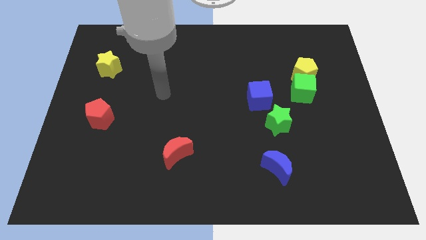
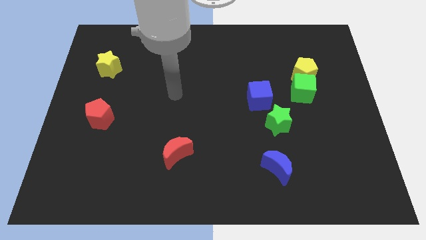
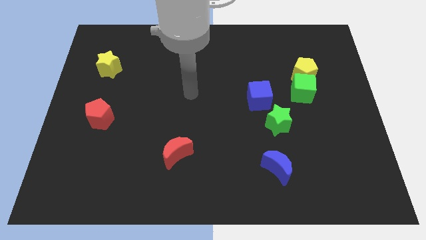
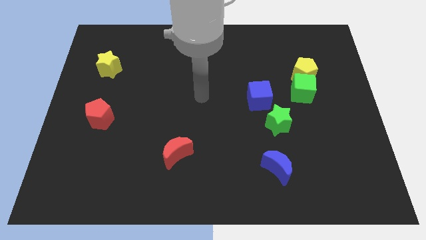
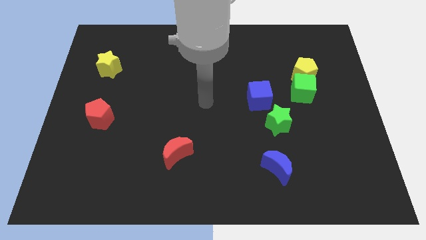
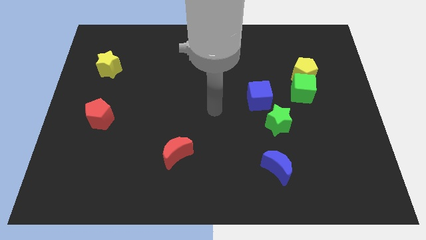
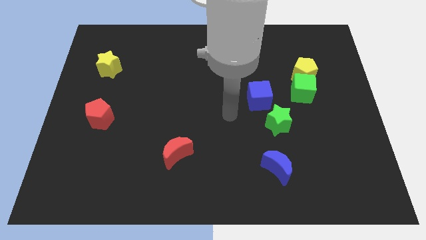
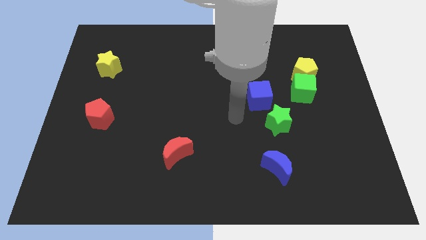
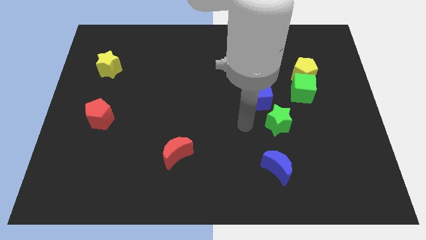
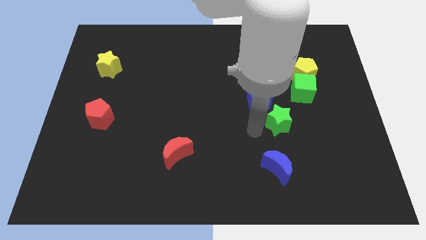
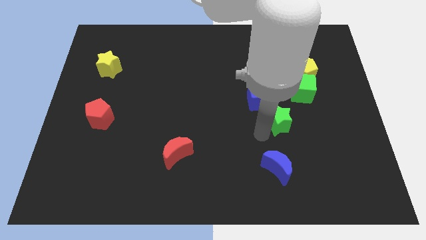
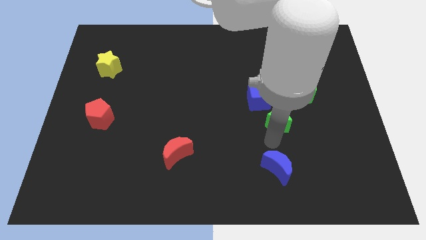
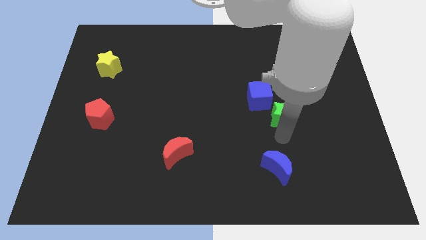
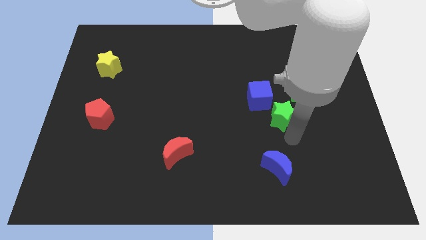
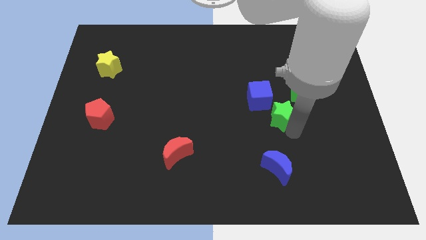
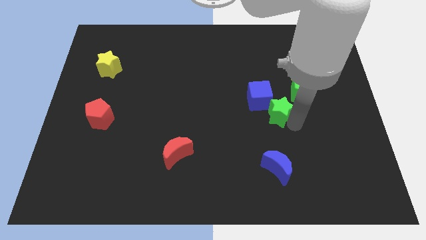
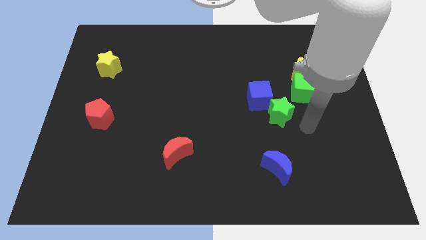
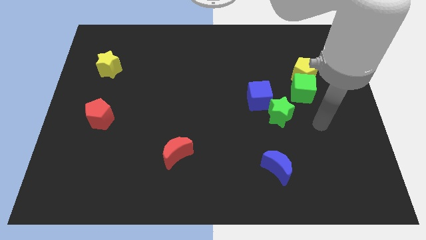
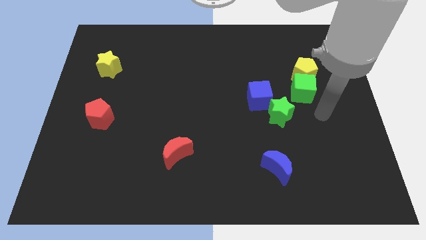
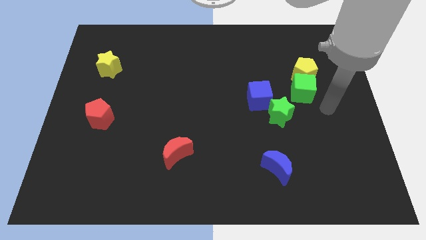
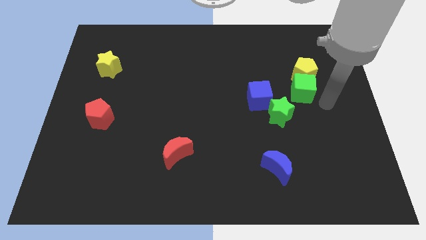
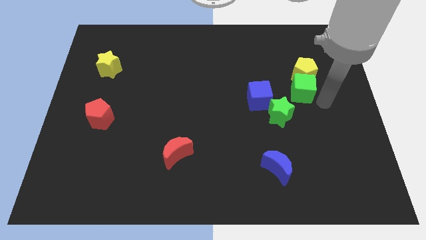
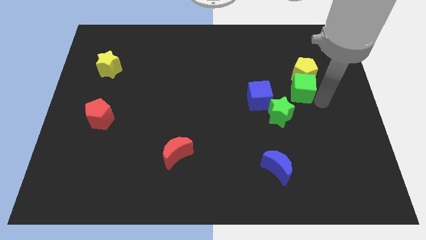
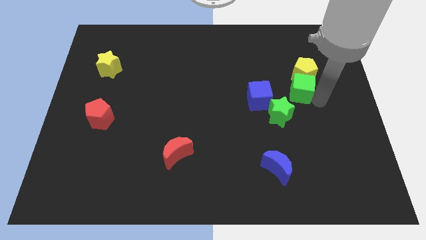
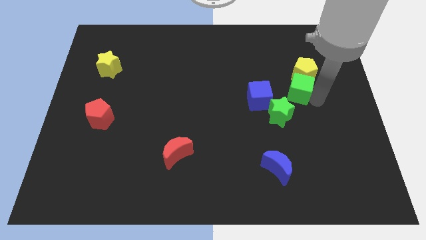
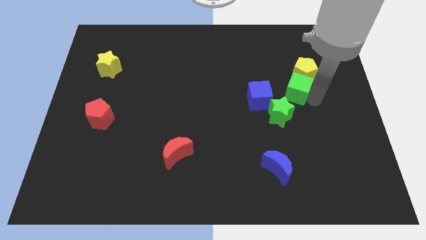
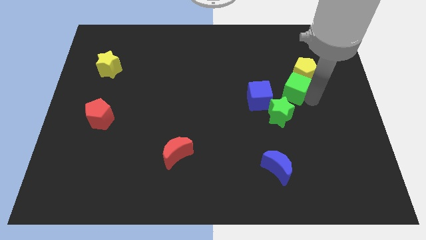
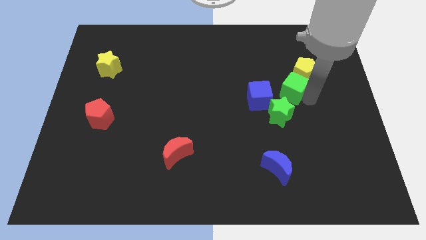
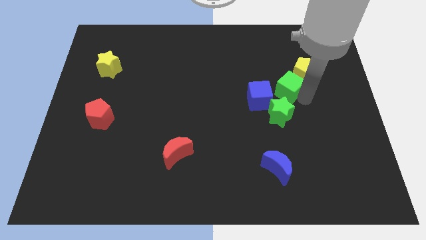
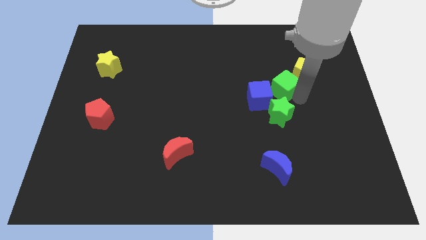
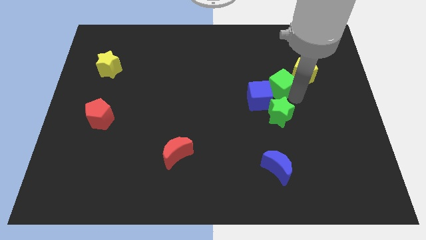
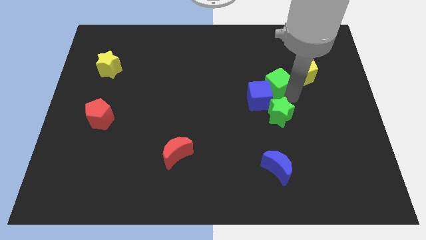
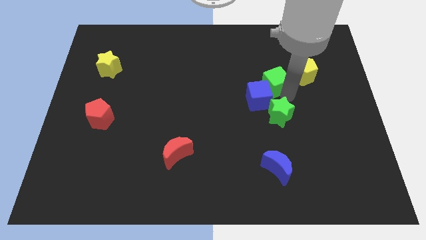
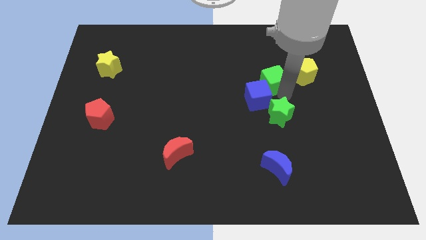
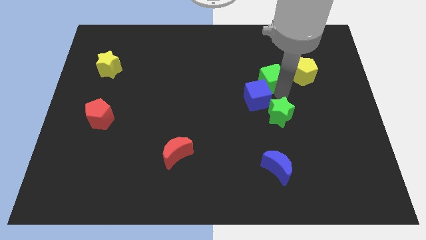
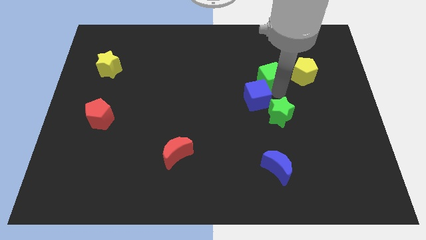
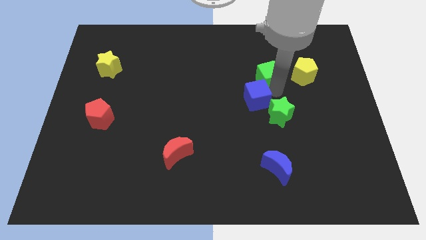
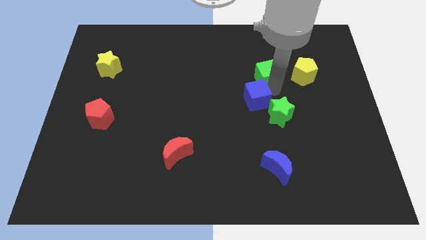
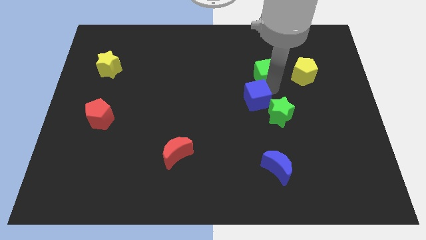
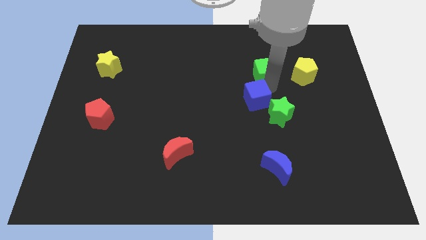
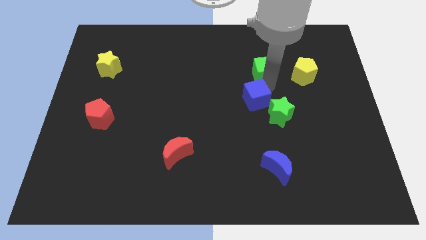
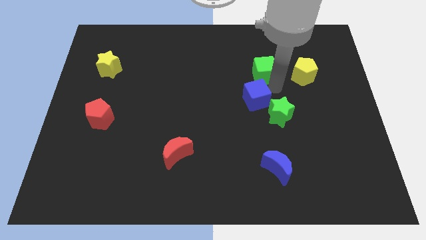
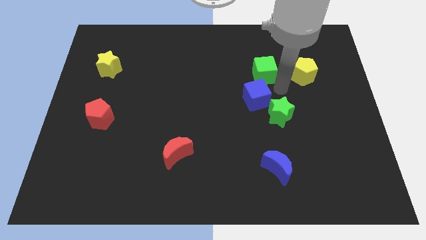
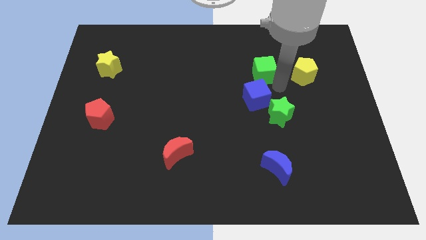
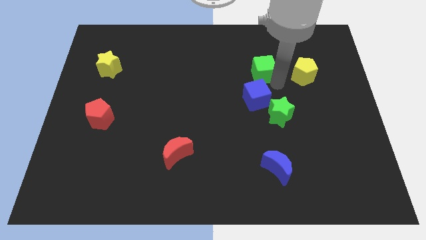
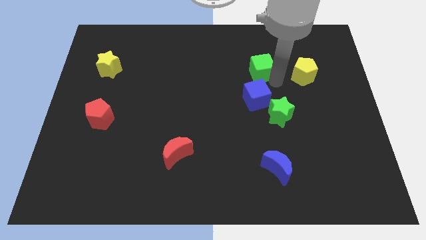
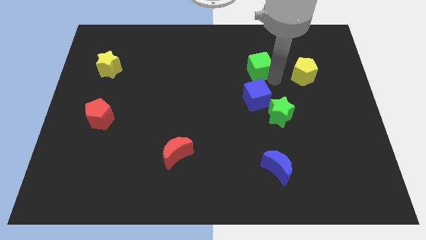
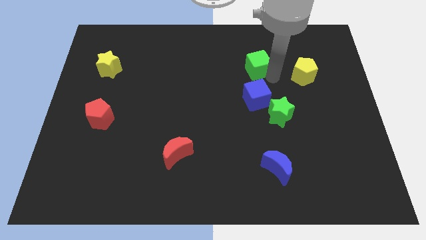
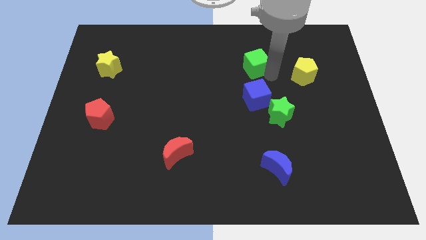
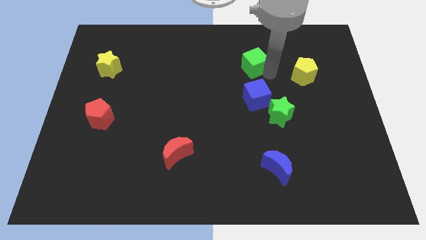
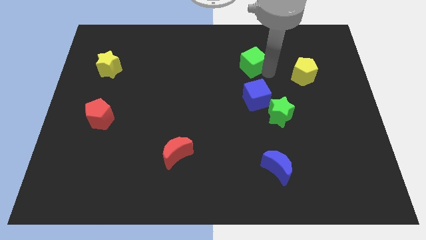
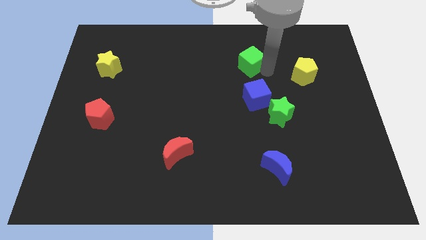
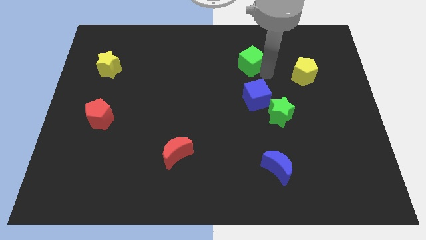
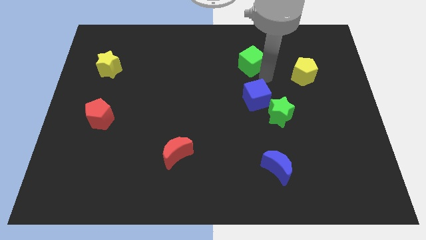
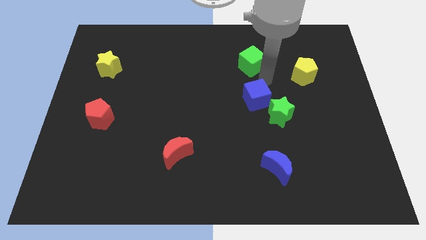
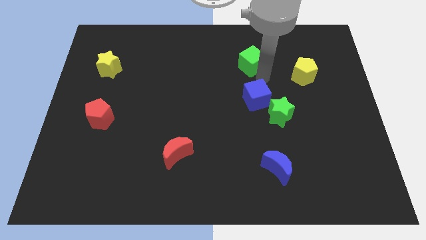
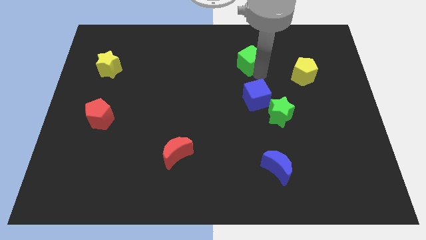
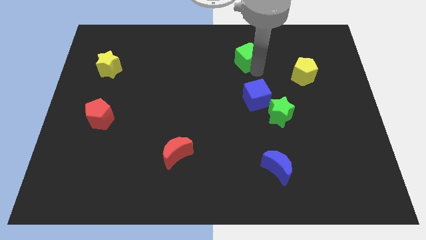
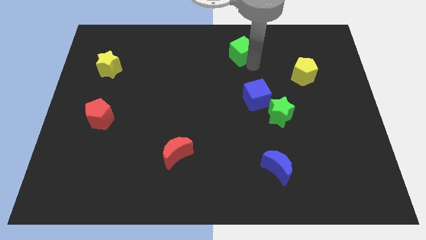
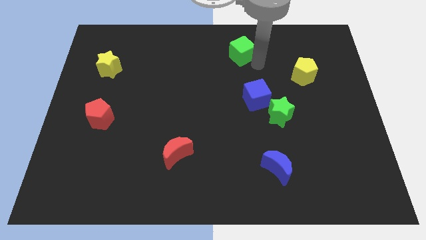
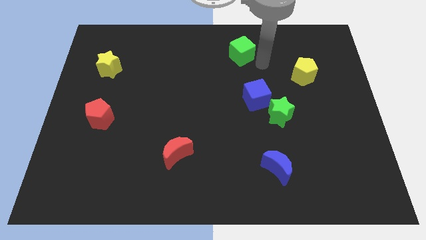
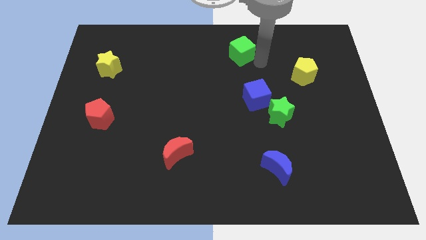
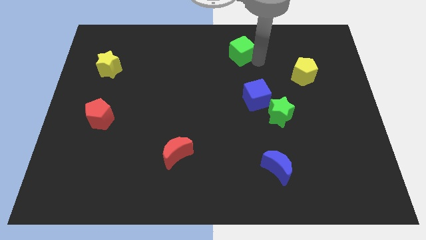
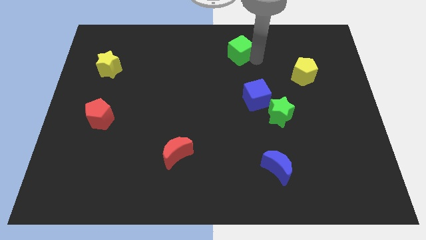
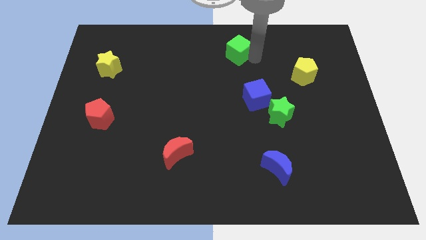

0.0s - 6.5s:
move the green cube to the top side
